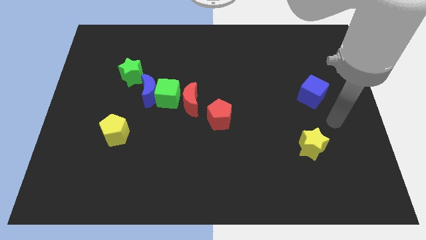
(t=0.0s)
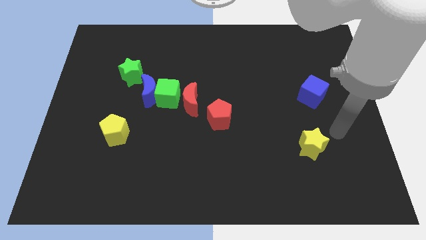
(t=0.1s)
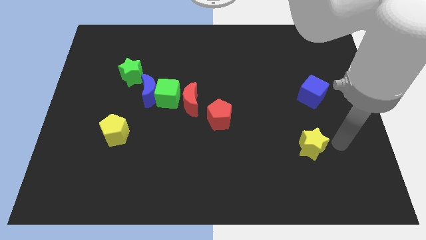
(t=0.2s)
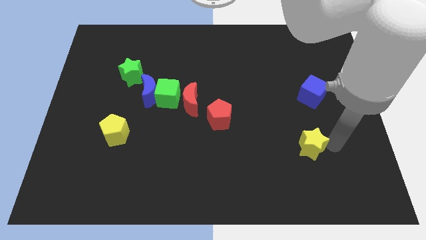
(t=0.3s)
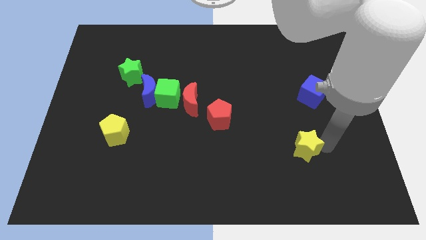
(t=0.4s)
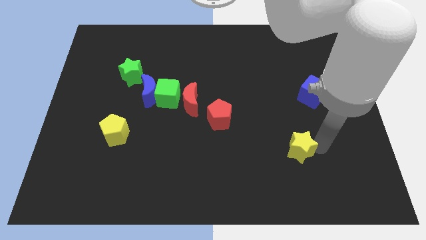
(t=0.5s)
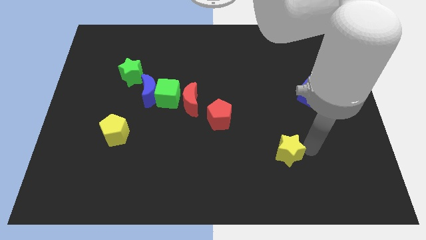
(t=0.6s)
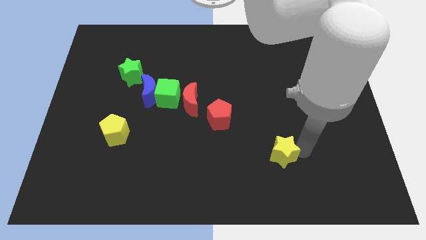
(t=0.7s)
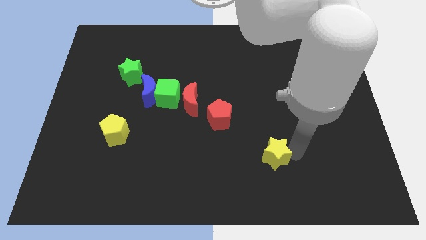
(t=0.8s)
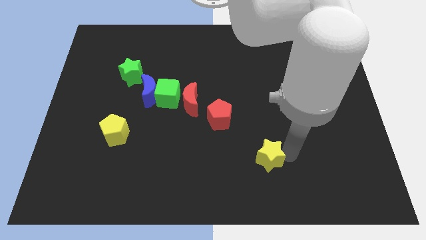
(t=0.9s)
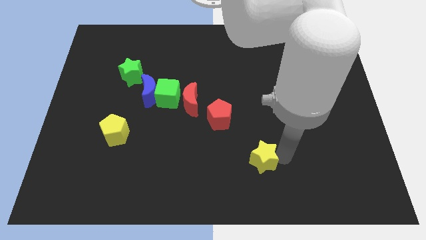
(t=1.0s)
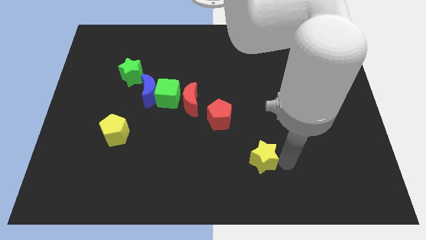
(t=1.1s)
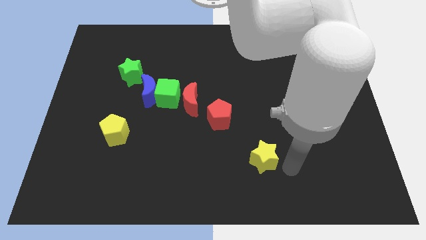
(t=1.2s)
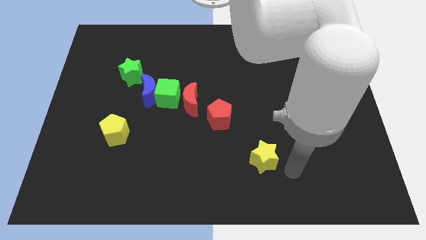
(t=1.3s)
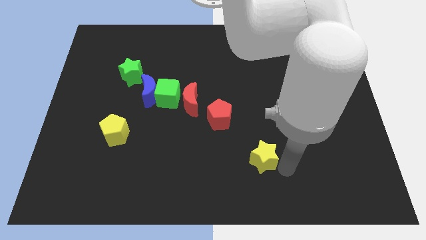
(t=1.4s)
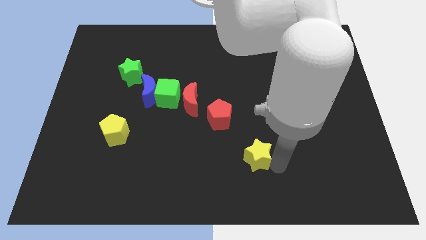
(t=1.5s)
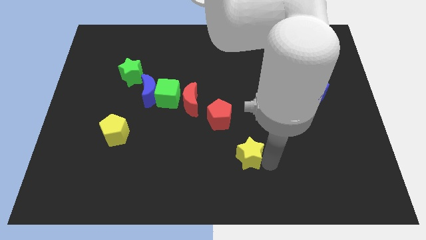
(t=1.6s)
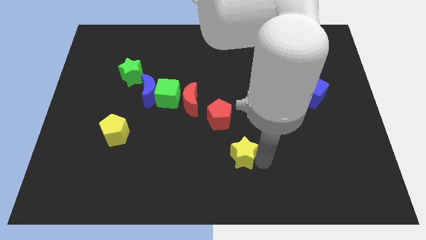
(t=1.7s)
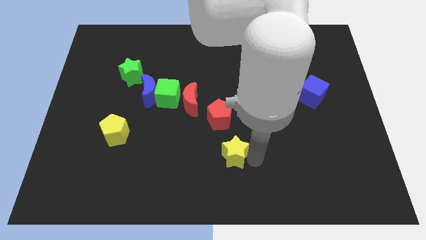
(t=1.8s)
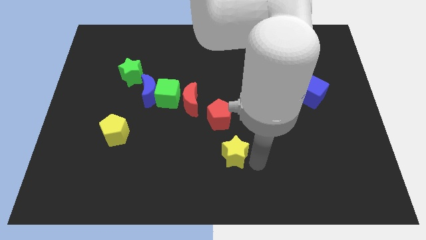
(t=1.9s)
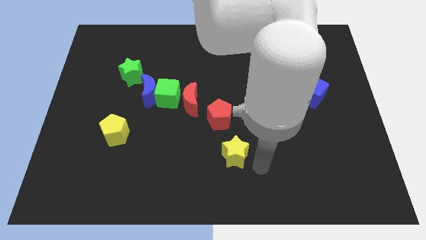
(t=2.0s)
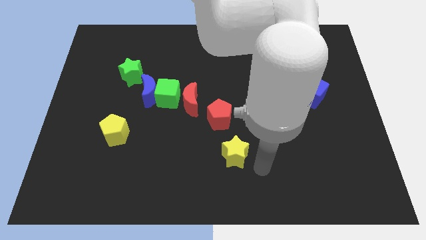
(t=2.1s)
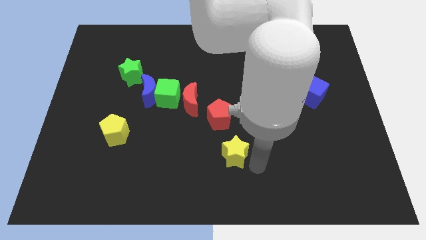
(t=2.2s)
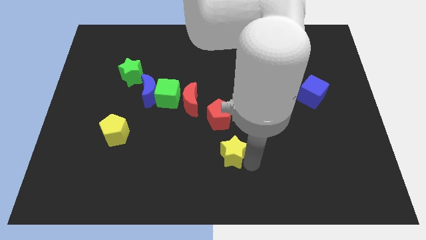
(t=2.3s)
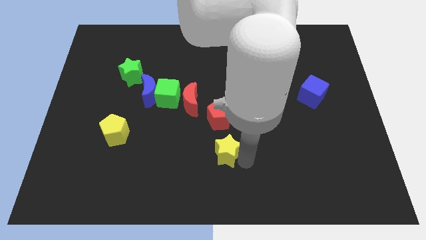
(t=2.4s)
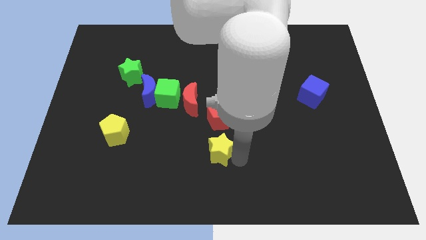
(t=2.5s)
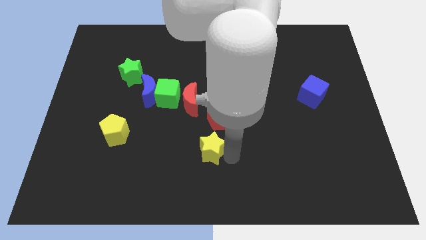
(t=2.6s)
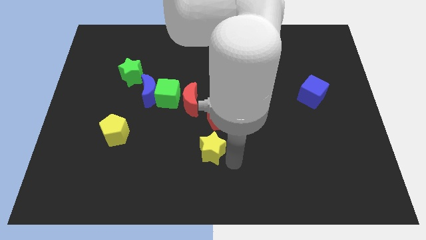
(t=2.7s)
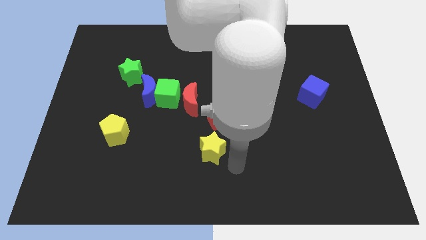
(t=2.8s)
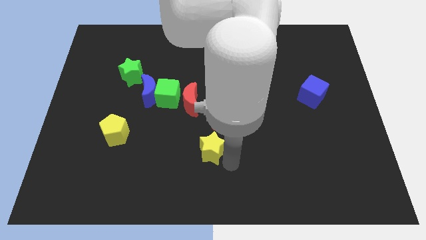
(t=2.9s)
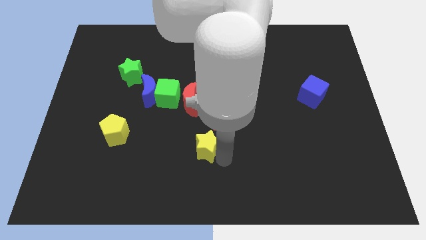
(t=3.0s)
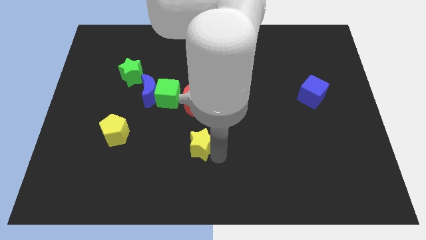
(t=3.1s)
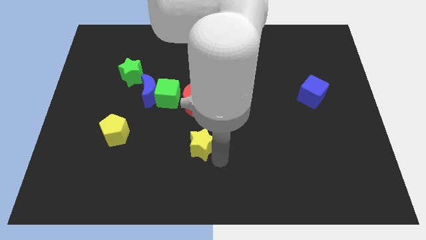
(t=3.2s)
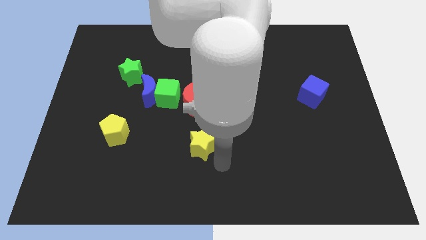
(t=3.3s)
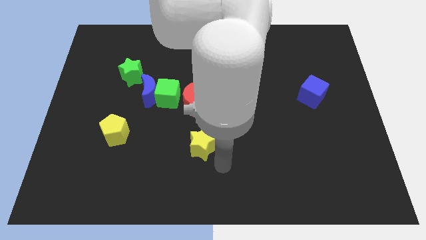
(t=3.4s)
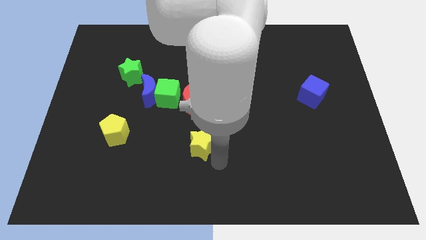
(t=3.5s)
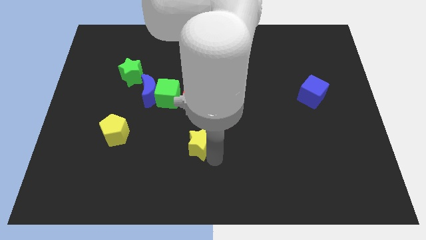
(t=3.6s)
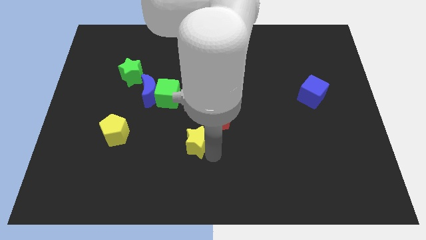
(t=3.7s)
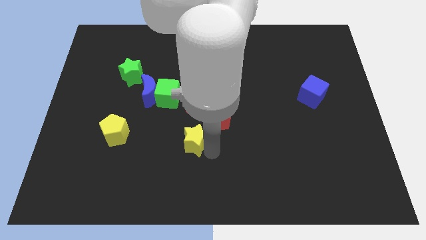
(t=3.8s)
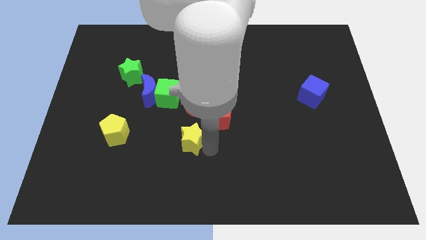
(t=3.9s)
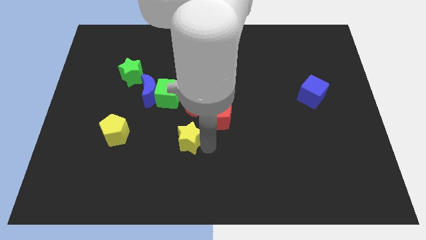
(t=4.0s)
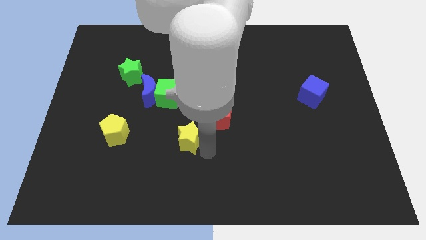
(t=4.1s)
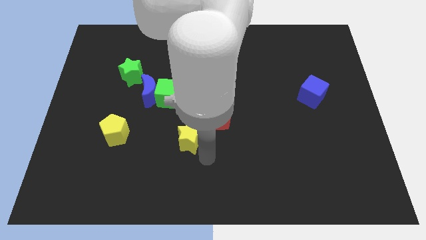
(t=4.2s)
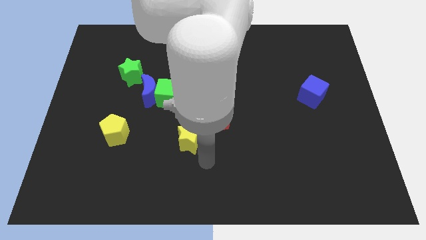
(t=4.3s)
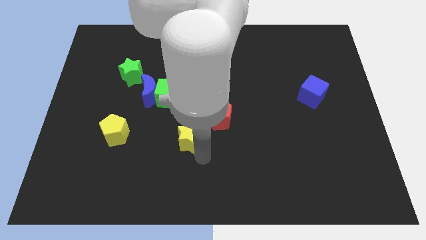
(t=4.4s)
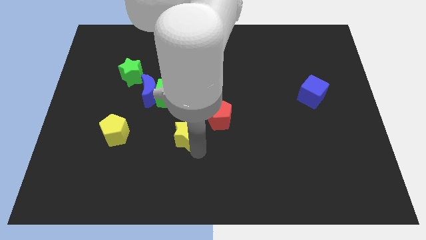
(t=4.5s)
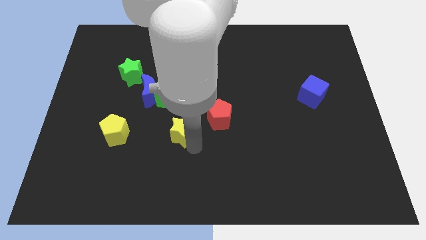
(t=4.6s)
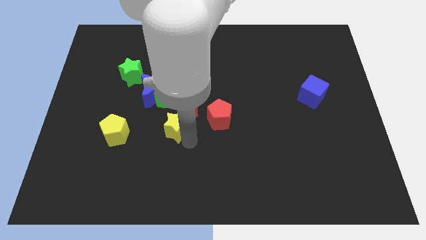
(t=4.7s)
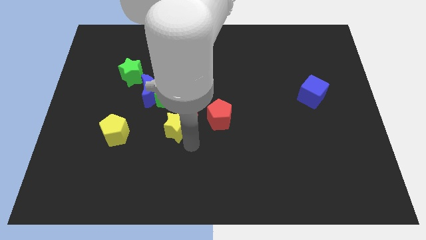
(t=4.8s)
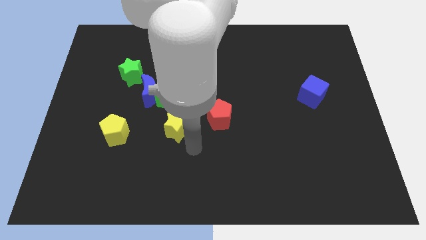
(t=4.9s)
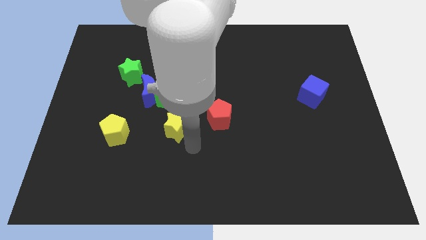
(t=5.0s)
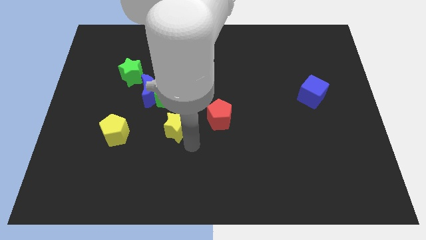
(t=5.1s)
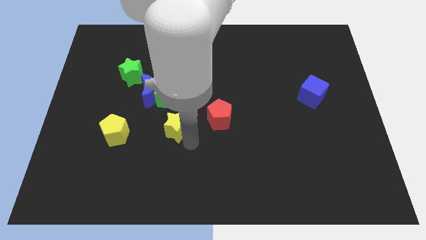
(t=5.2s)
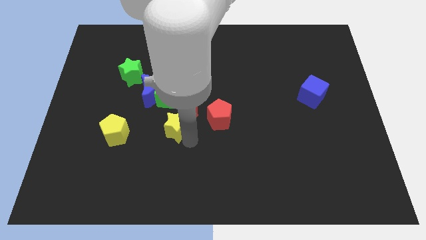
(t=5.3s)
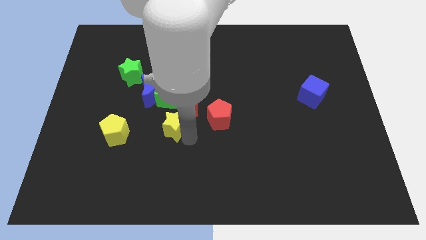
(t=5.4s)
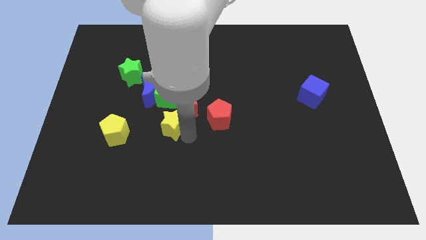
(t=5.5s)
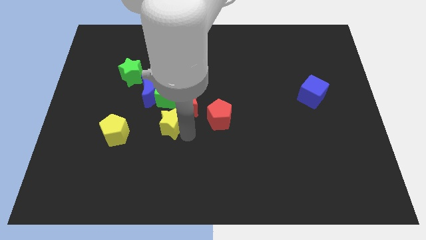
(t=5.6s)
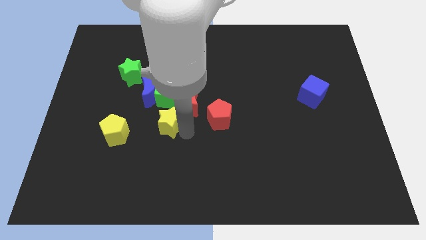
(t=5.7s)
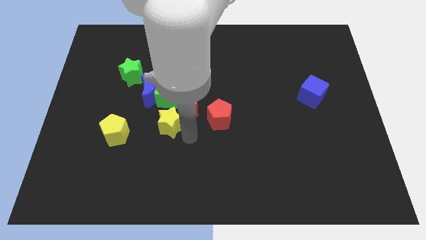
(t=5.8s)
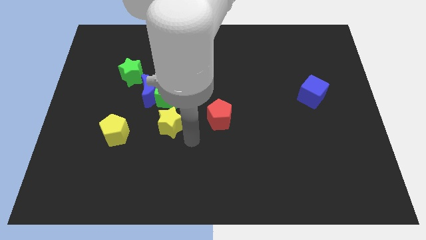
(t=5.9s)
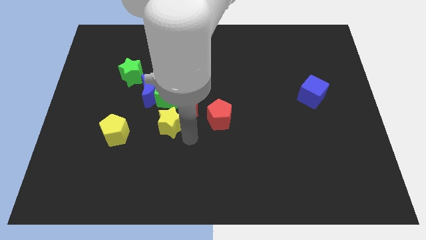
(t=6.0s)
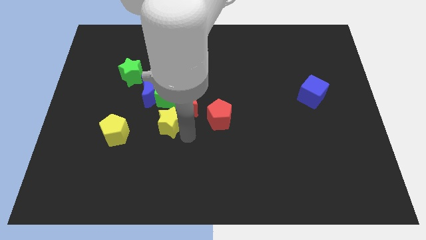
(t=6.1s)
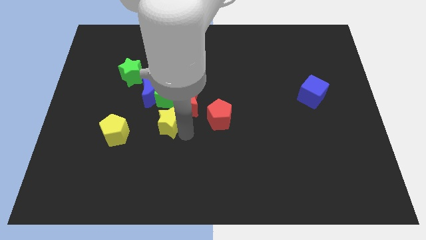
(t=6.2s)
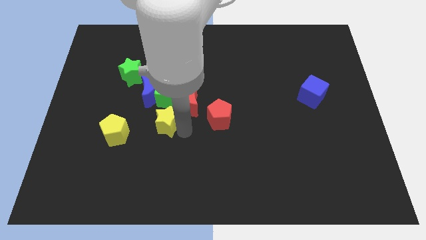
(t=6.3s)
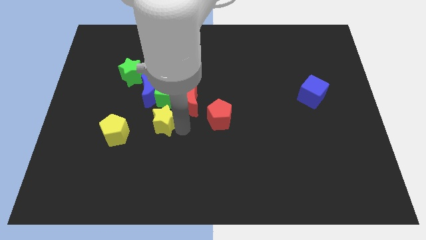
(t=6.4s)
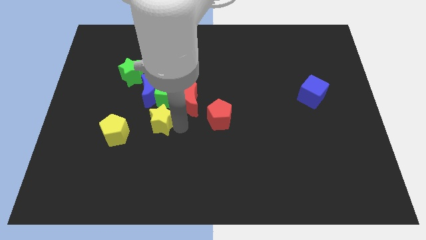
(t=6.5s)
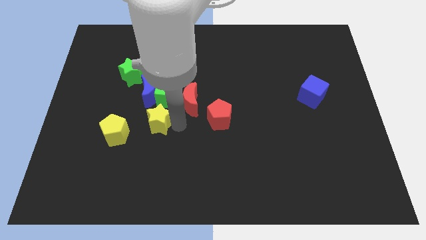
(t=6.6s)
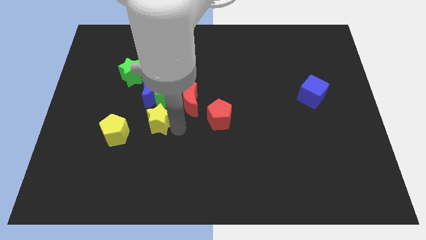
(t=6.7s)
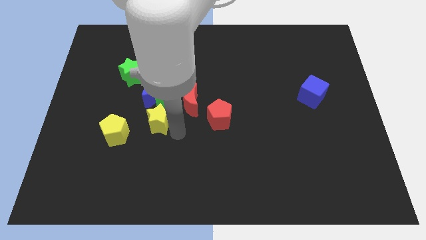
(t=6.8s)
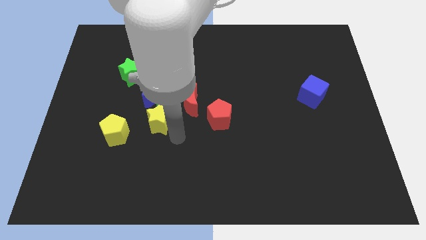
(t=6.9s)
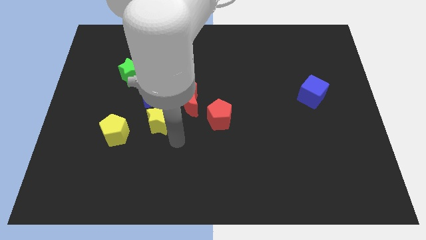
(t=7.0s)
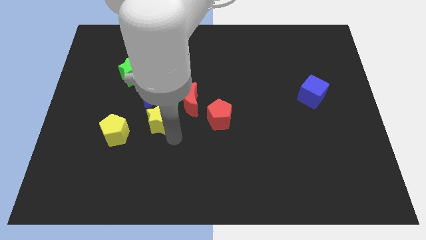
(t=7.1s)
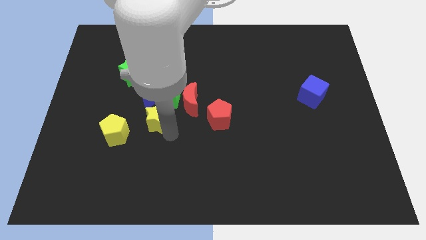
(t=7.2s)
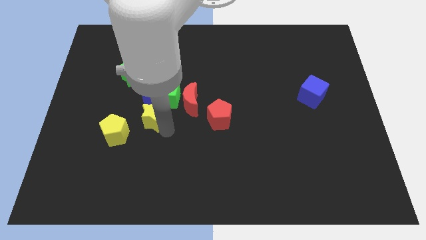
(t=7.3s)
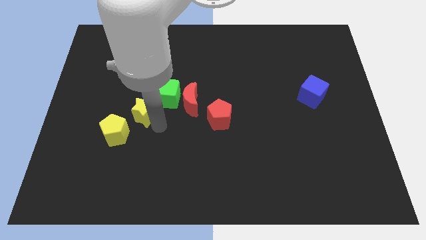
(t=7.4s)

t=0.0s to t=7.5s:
slide the yellow star close to the blue moon
